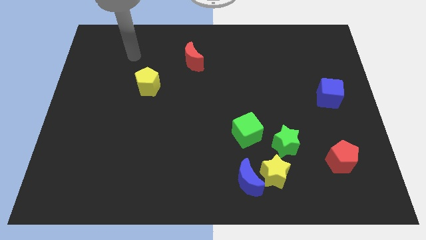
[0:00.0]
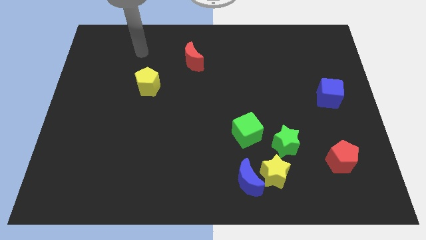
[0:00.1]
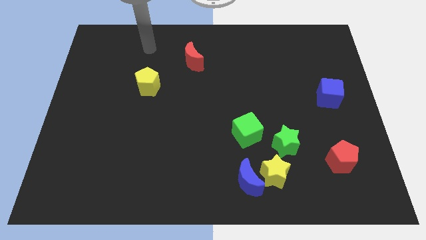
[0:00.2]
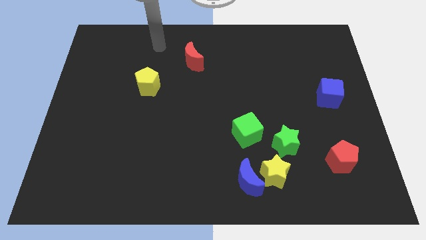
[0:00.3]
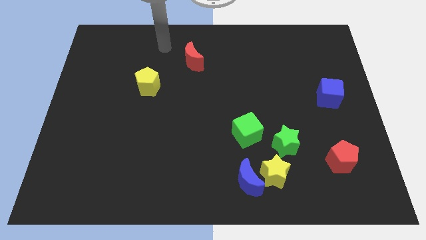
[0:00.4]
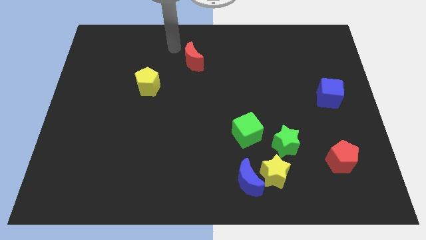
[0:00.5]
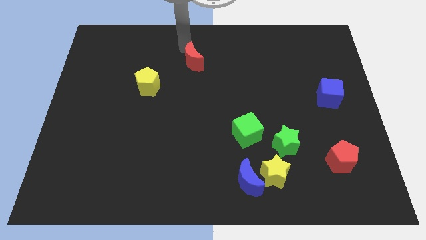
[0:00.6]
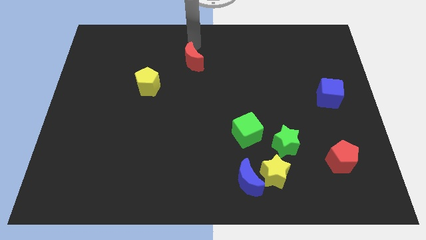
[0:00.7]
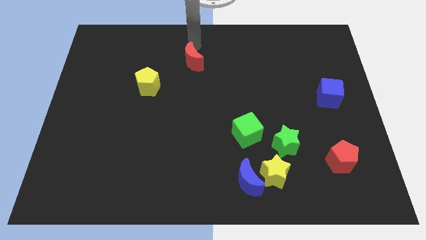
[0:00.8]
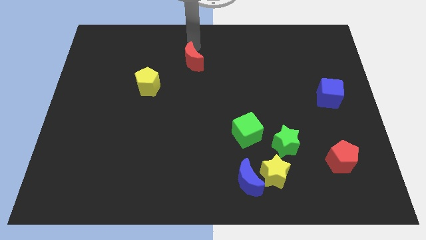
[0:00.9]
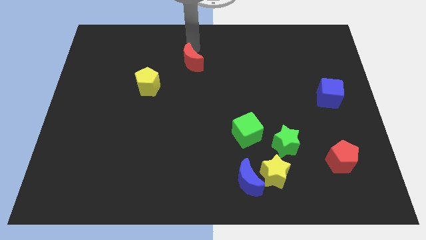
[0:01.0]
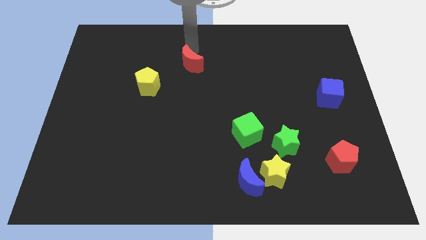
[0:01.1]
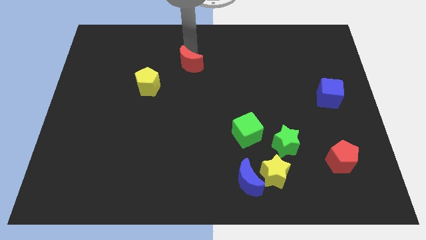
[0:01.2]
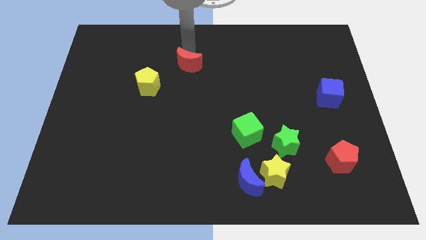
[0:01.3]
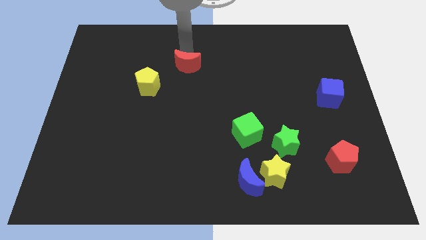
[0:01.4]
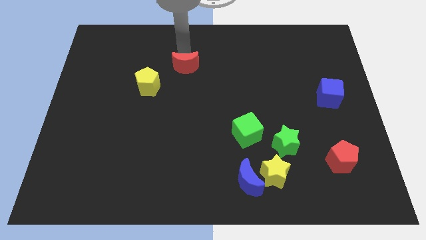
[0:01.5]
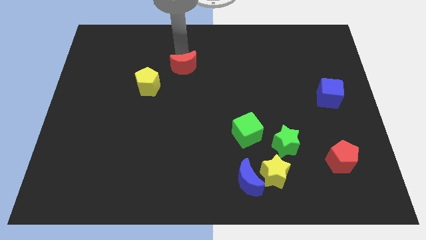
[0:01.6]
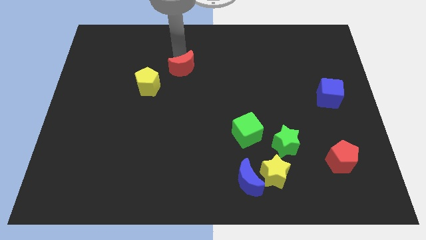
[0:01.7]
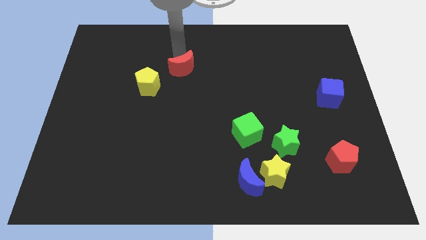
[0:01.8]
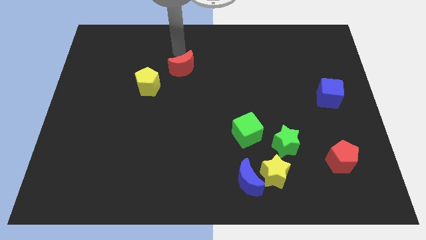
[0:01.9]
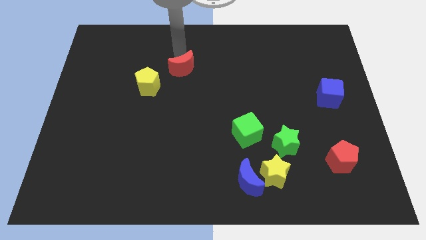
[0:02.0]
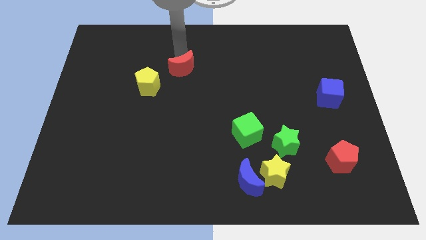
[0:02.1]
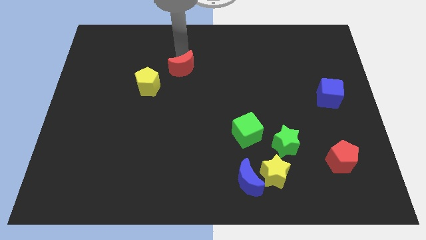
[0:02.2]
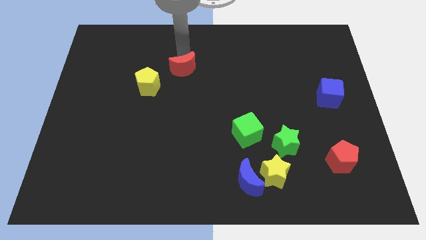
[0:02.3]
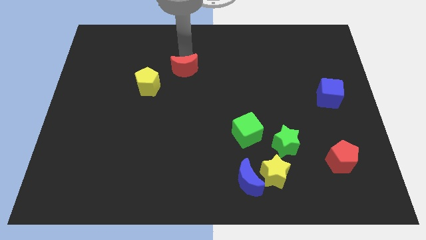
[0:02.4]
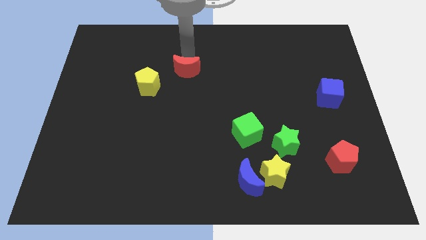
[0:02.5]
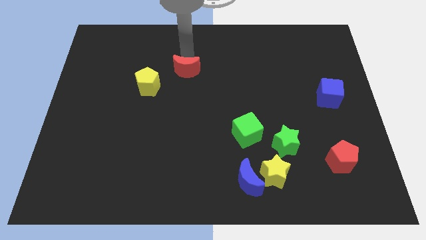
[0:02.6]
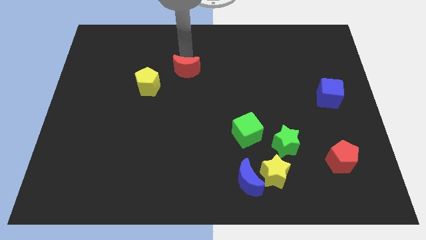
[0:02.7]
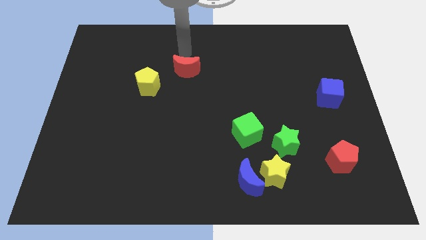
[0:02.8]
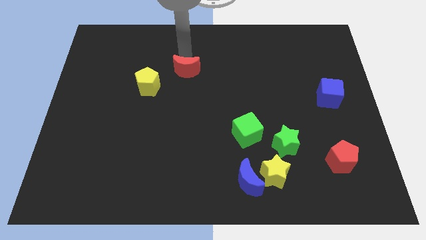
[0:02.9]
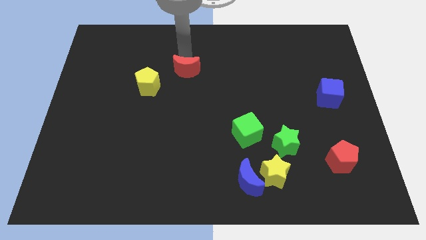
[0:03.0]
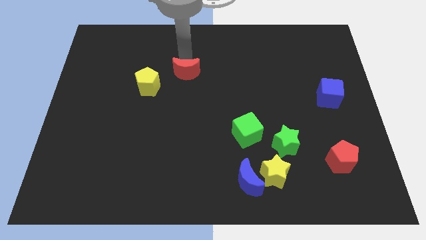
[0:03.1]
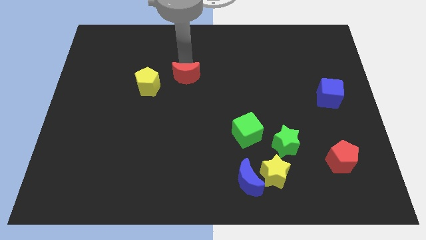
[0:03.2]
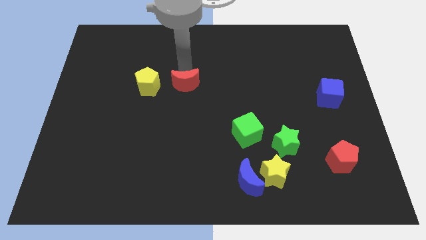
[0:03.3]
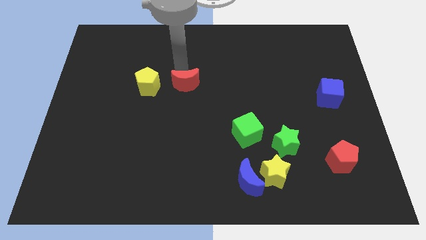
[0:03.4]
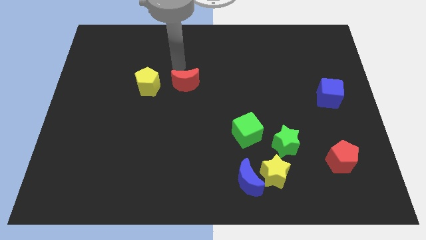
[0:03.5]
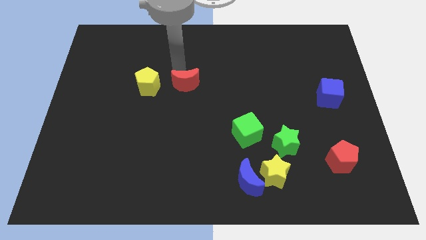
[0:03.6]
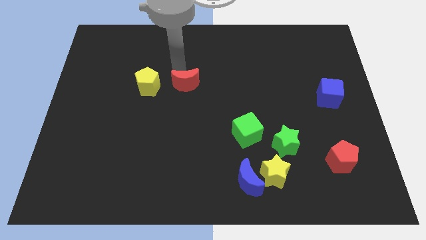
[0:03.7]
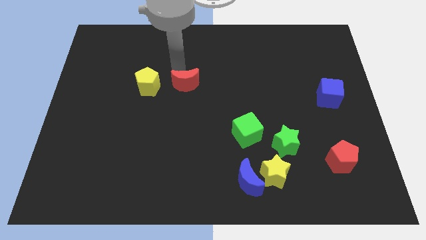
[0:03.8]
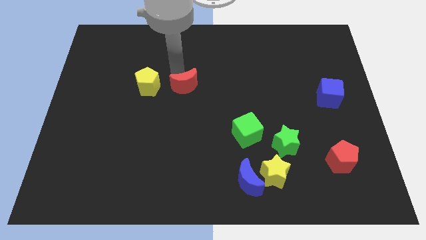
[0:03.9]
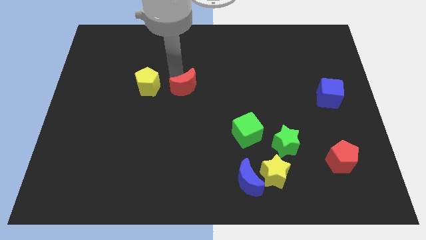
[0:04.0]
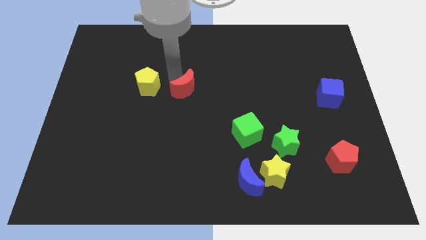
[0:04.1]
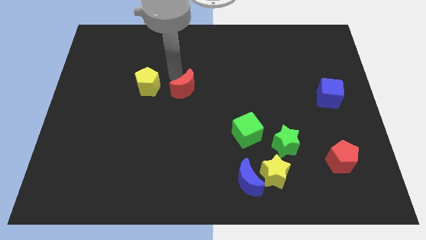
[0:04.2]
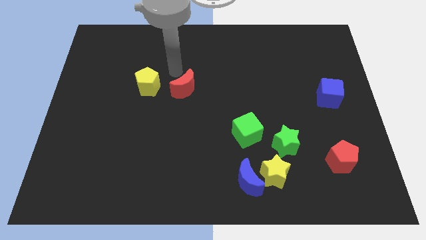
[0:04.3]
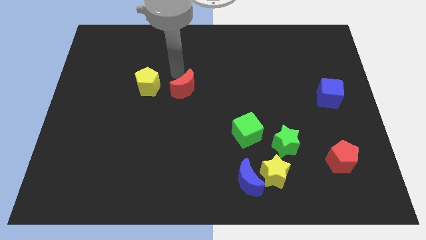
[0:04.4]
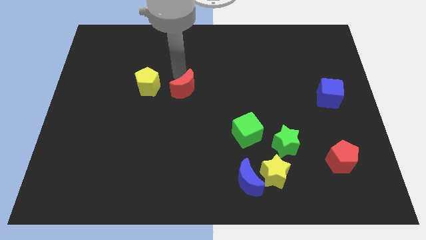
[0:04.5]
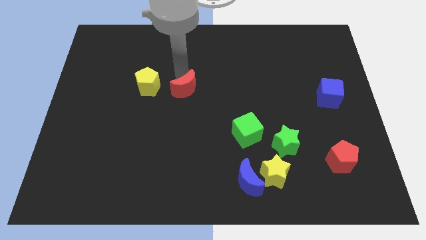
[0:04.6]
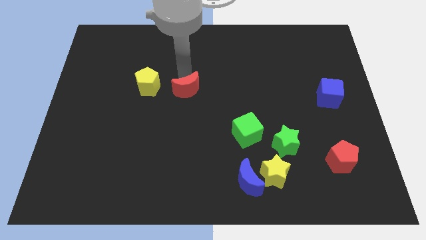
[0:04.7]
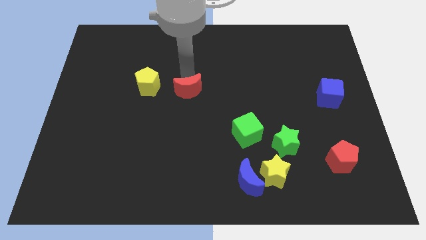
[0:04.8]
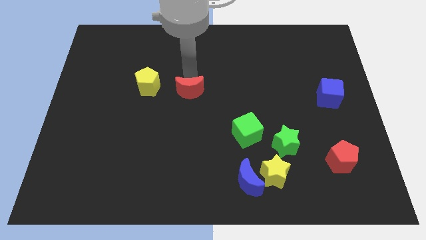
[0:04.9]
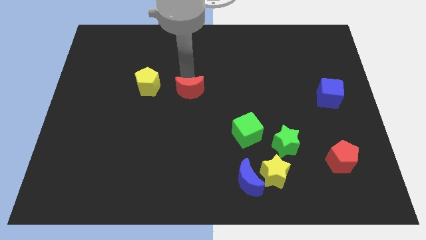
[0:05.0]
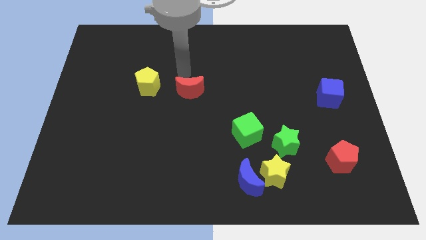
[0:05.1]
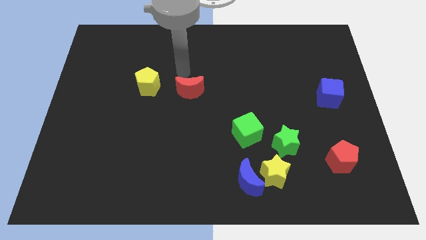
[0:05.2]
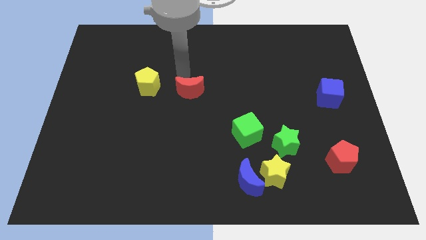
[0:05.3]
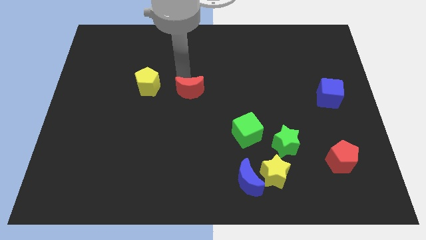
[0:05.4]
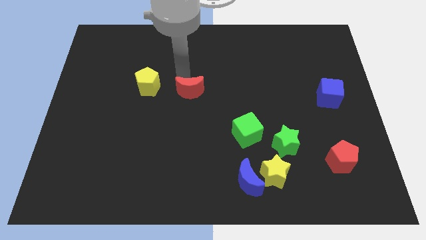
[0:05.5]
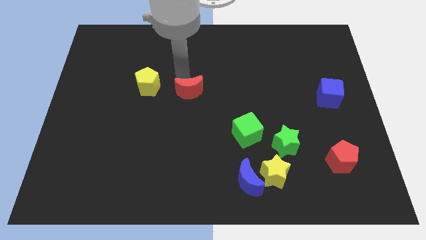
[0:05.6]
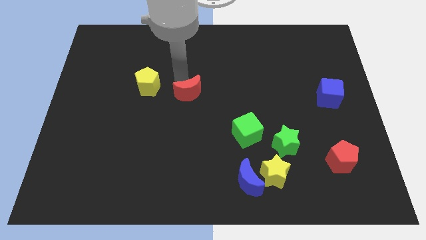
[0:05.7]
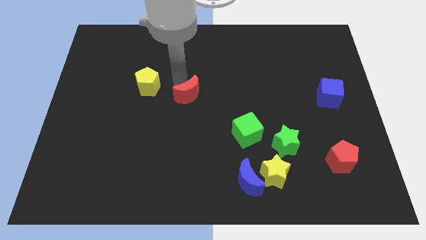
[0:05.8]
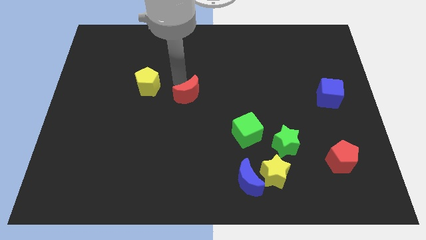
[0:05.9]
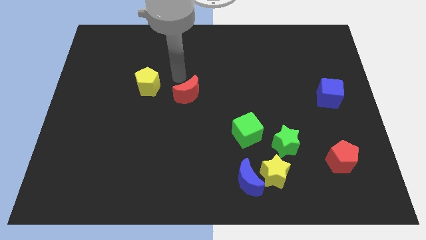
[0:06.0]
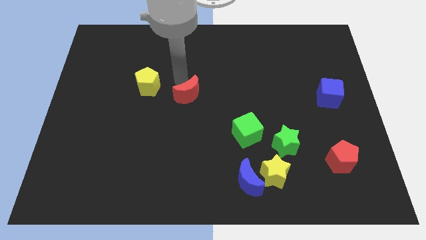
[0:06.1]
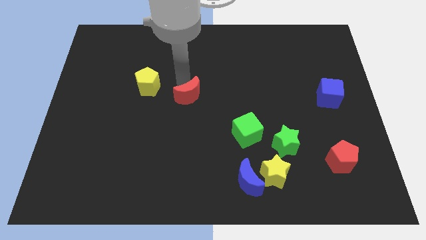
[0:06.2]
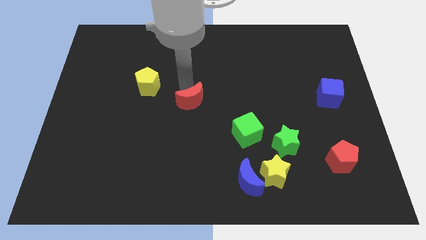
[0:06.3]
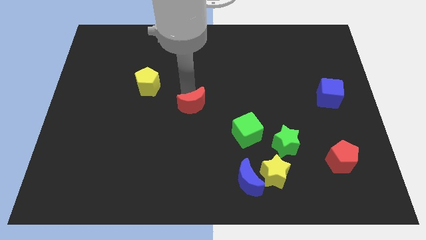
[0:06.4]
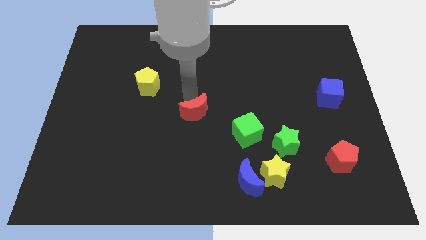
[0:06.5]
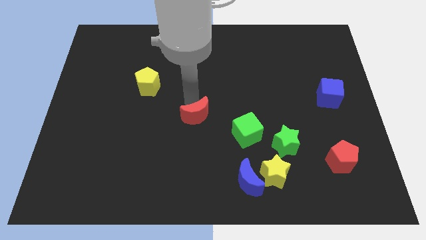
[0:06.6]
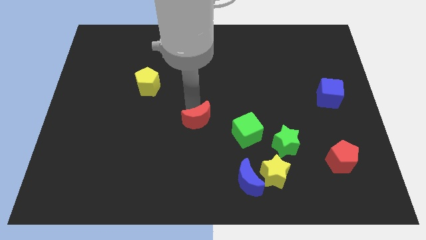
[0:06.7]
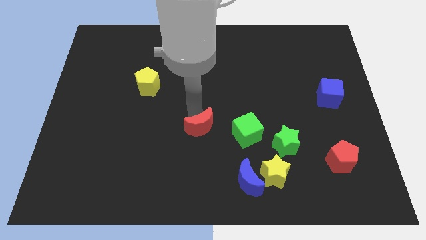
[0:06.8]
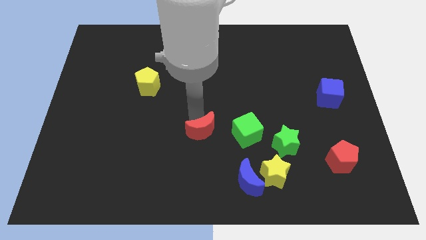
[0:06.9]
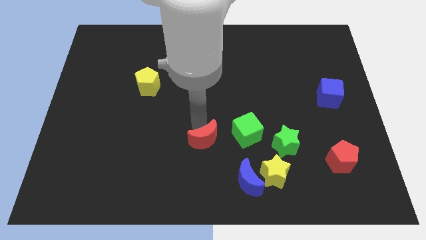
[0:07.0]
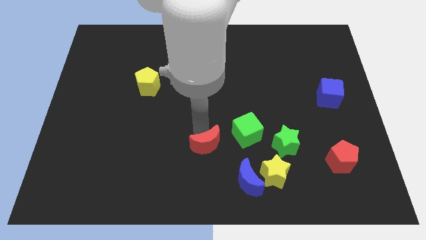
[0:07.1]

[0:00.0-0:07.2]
move the red moon to the top left of the blue moon
